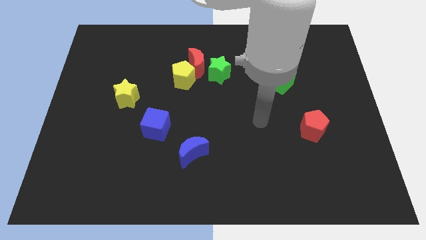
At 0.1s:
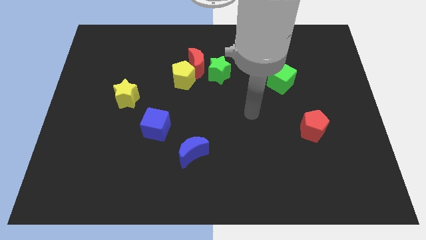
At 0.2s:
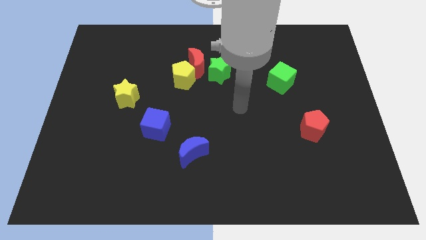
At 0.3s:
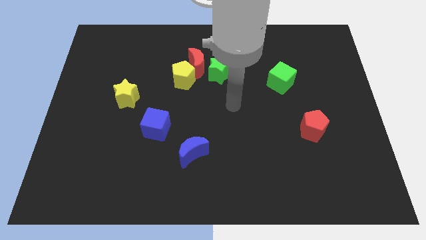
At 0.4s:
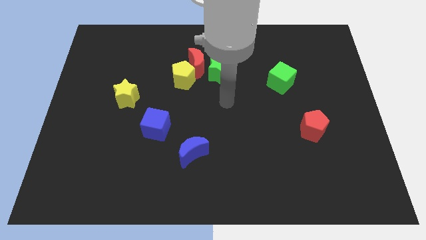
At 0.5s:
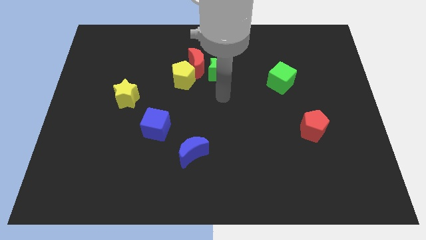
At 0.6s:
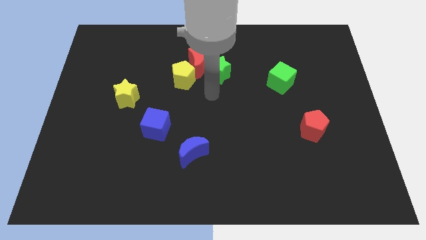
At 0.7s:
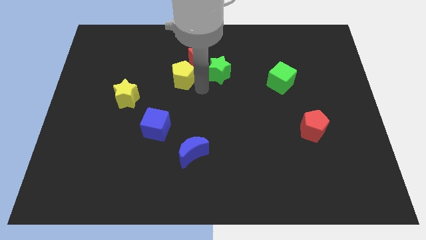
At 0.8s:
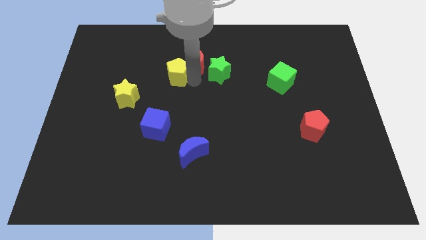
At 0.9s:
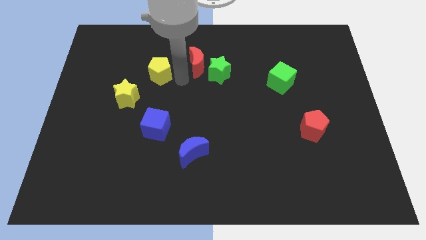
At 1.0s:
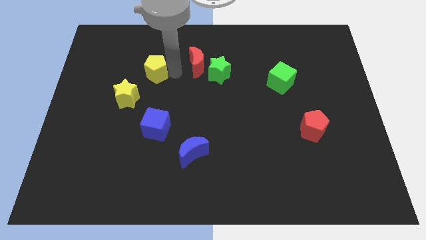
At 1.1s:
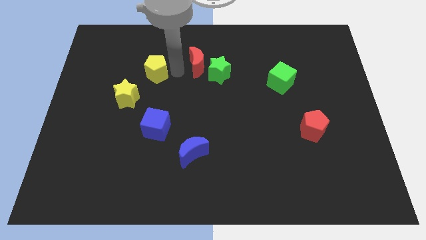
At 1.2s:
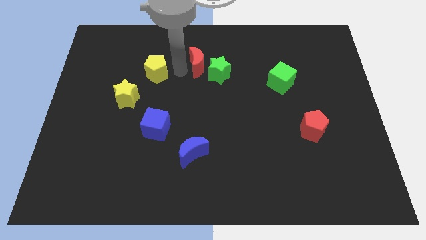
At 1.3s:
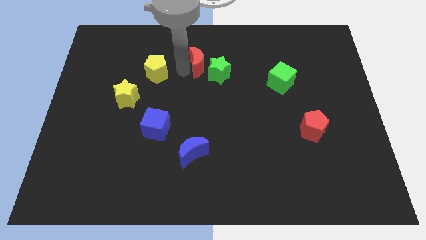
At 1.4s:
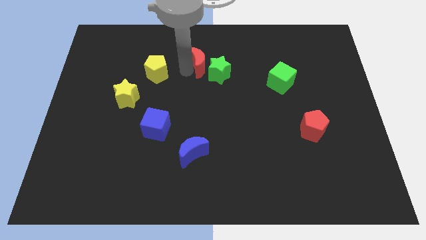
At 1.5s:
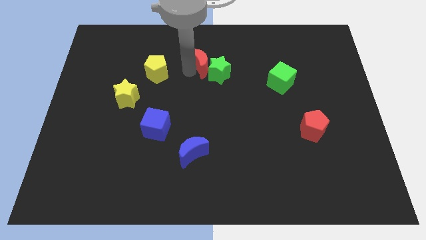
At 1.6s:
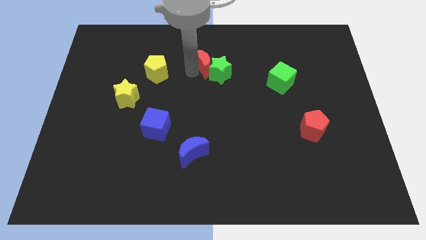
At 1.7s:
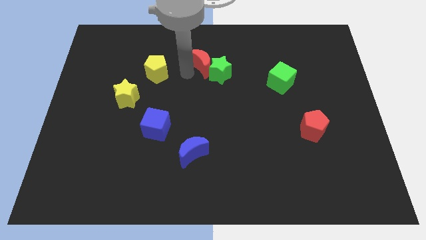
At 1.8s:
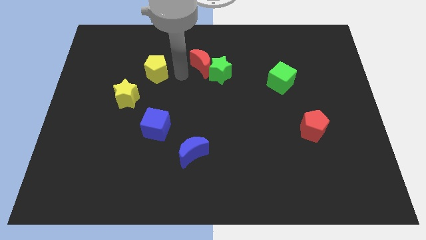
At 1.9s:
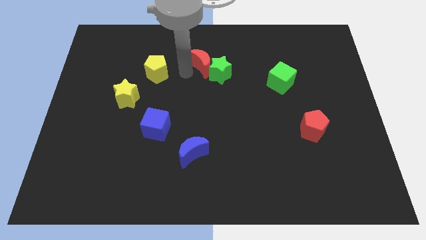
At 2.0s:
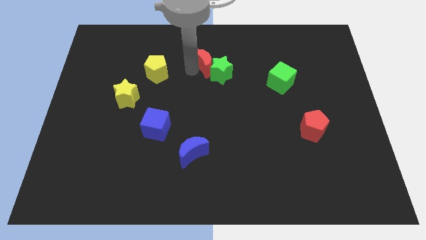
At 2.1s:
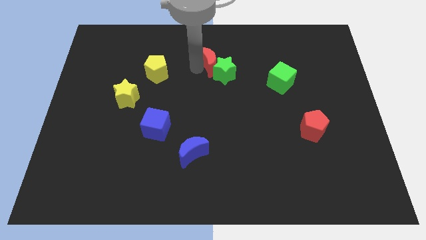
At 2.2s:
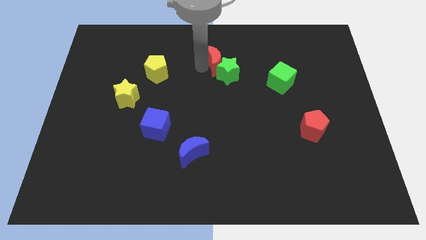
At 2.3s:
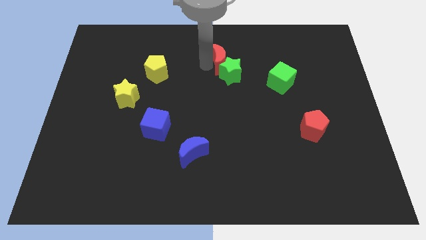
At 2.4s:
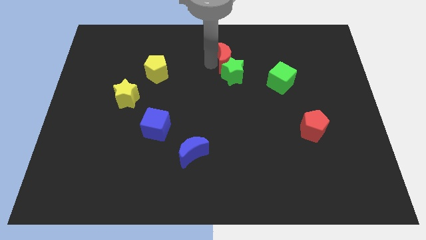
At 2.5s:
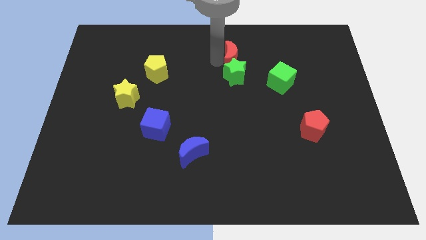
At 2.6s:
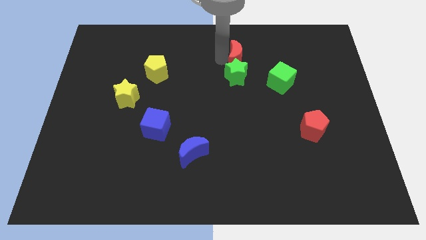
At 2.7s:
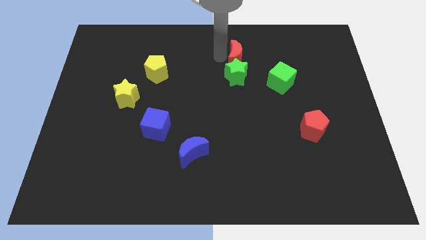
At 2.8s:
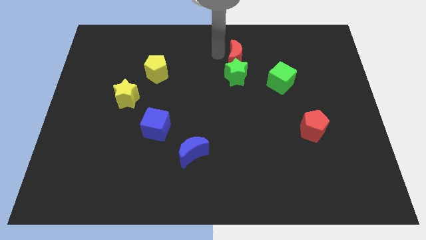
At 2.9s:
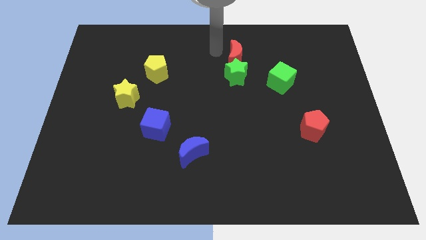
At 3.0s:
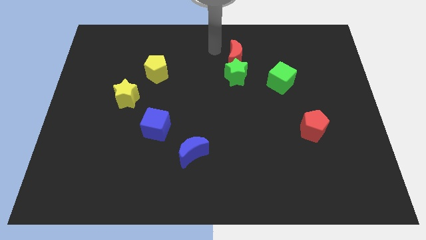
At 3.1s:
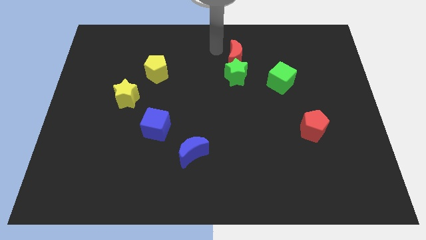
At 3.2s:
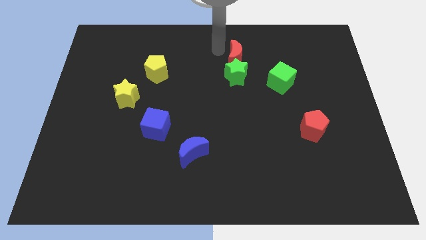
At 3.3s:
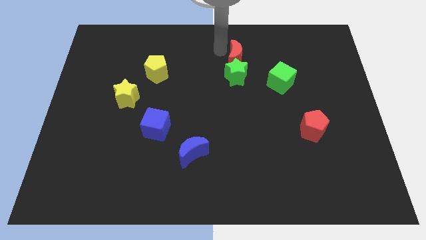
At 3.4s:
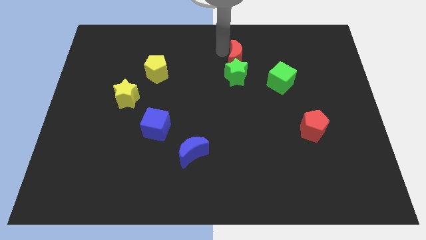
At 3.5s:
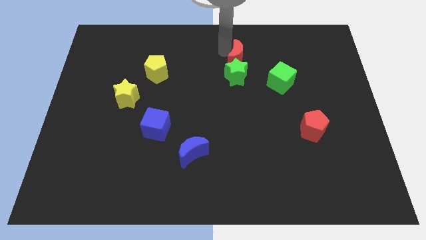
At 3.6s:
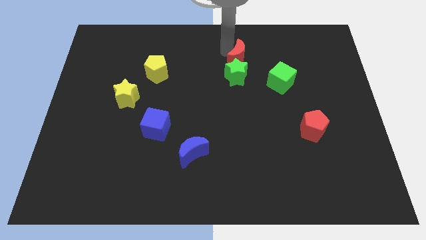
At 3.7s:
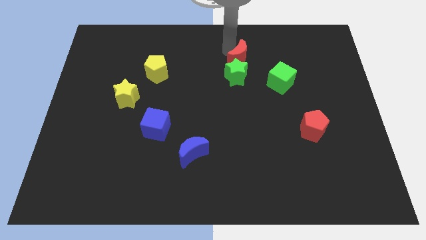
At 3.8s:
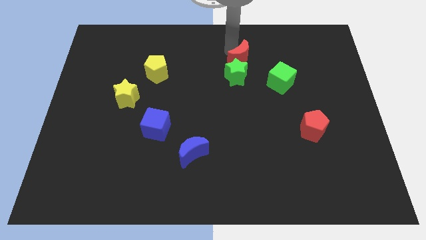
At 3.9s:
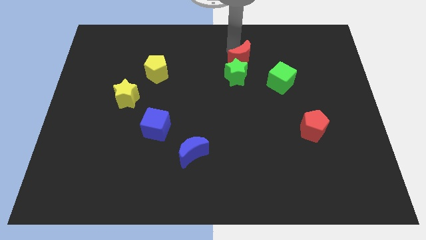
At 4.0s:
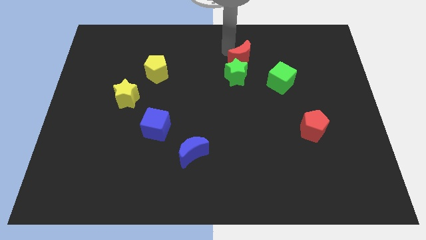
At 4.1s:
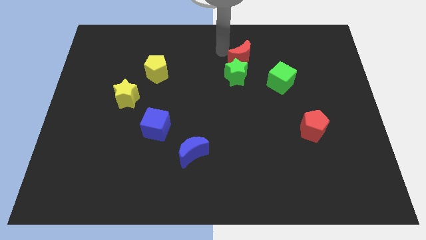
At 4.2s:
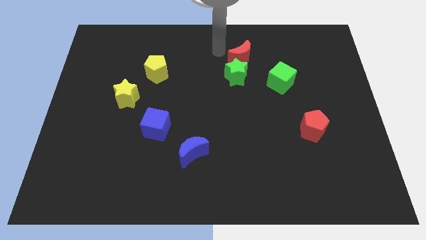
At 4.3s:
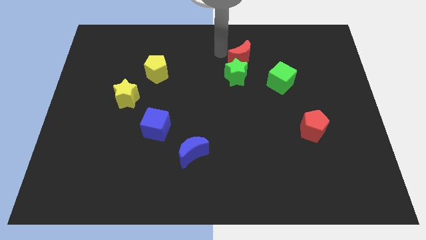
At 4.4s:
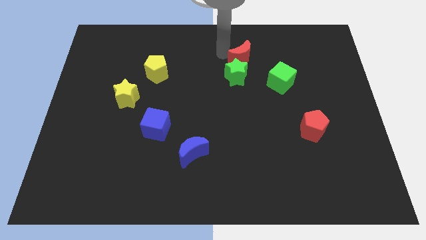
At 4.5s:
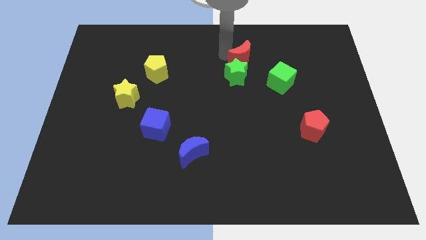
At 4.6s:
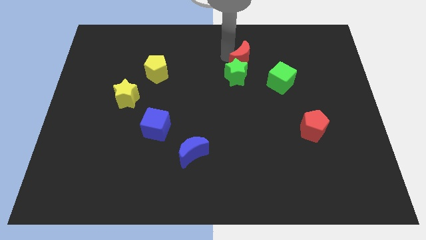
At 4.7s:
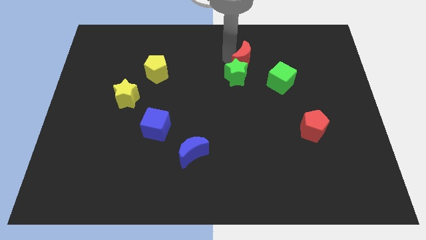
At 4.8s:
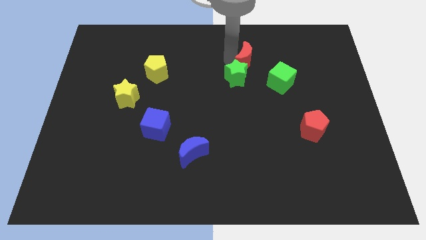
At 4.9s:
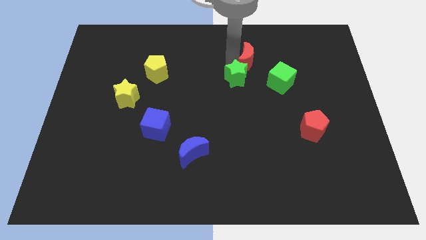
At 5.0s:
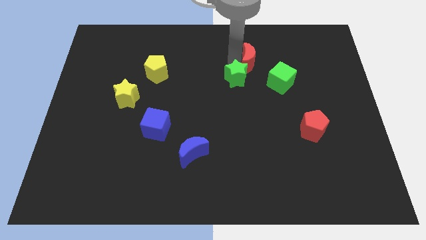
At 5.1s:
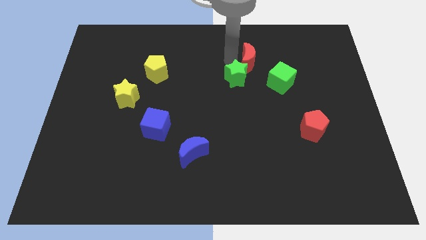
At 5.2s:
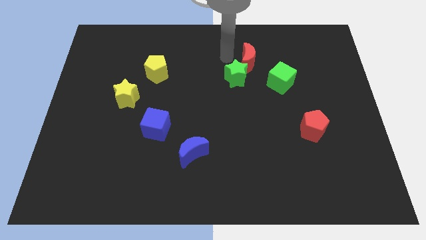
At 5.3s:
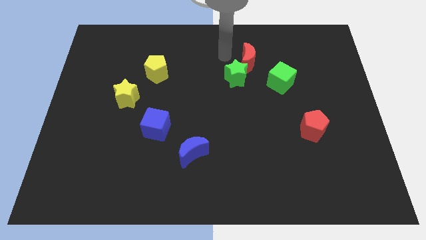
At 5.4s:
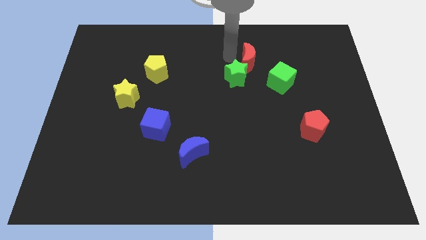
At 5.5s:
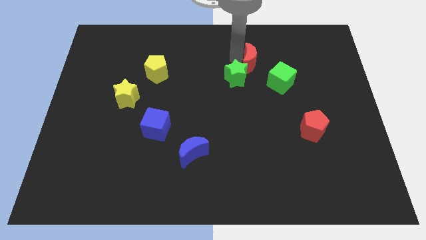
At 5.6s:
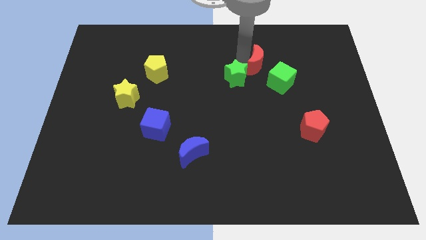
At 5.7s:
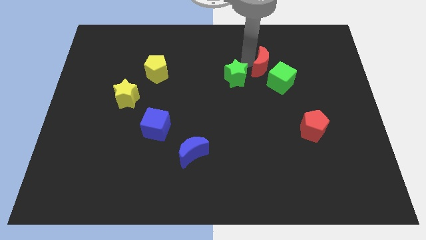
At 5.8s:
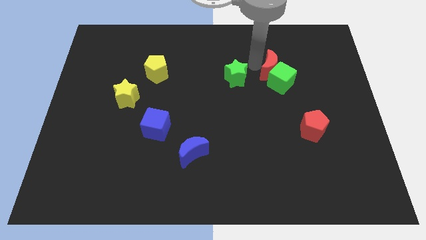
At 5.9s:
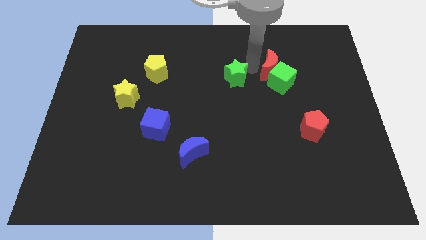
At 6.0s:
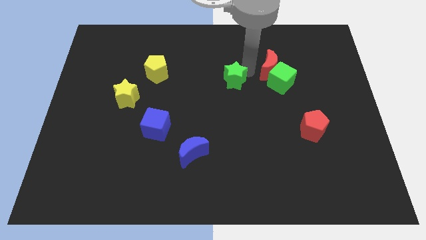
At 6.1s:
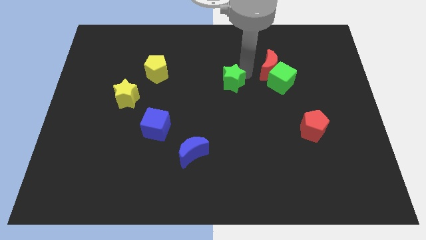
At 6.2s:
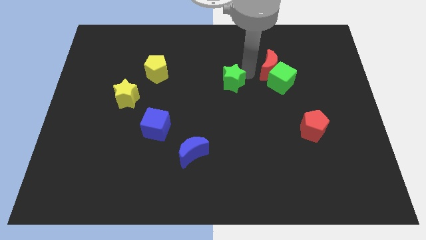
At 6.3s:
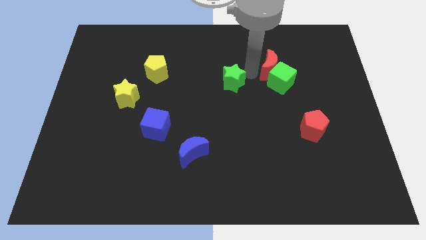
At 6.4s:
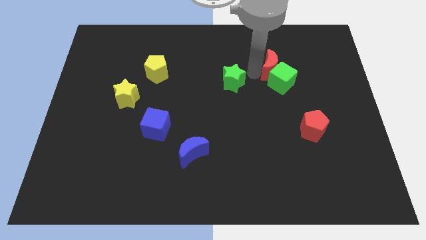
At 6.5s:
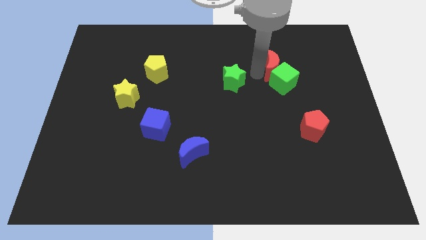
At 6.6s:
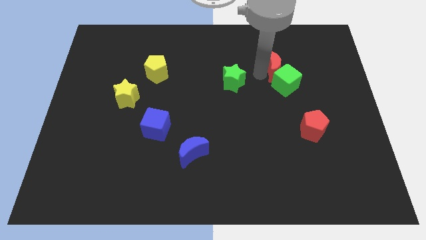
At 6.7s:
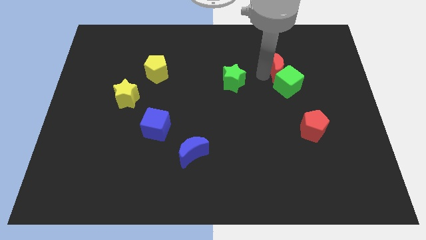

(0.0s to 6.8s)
move the red moon right

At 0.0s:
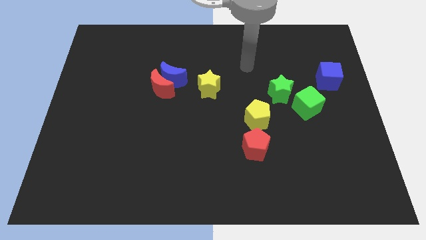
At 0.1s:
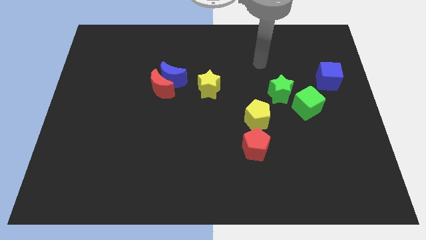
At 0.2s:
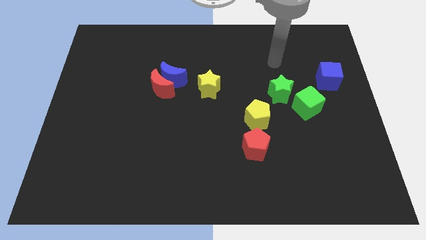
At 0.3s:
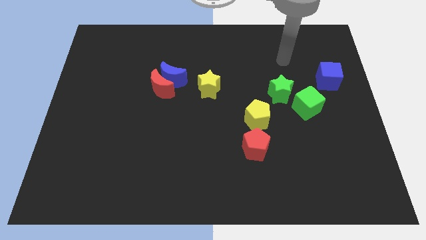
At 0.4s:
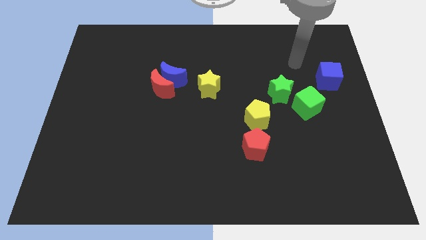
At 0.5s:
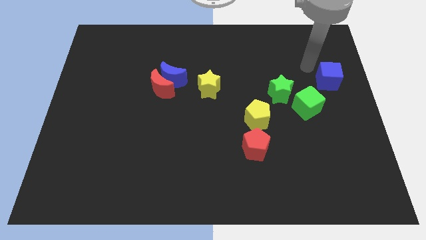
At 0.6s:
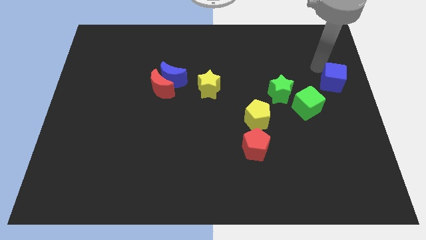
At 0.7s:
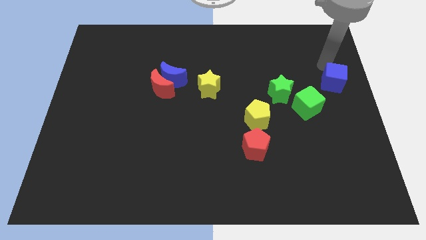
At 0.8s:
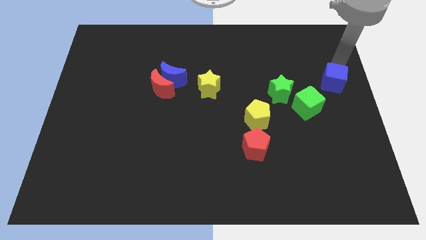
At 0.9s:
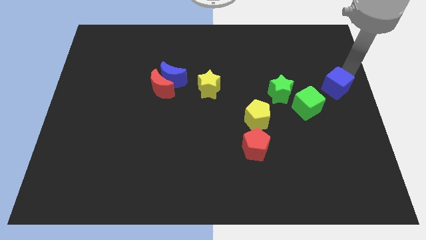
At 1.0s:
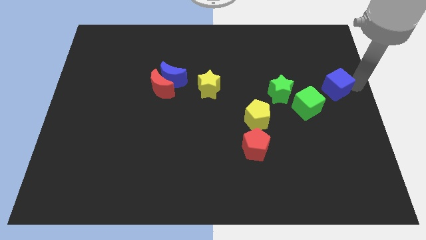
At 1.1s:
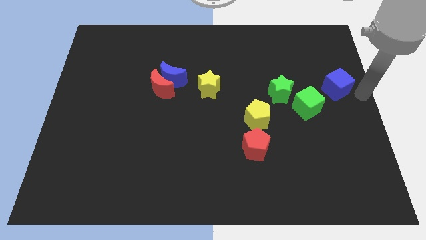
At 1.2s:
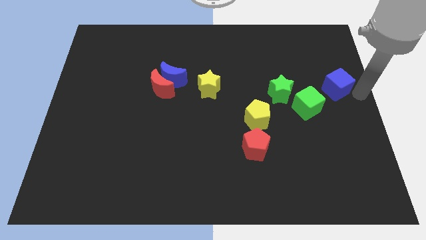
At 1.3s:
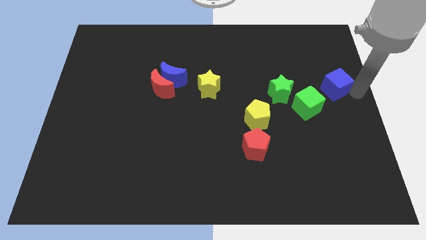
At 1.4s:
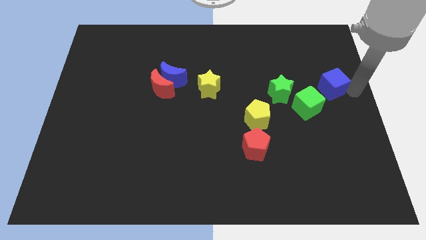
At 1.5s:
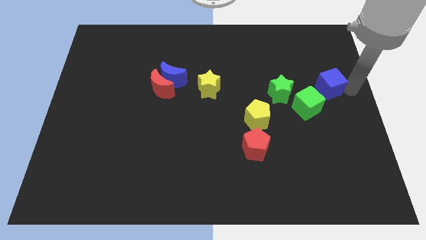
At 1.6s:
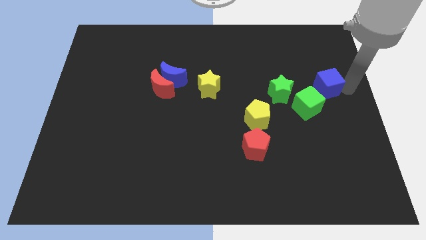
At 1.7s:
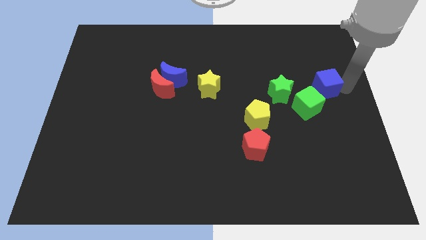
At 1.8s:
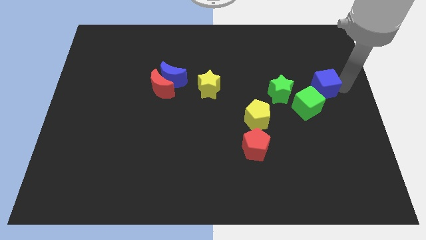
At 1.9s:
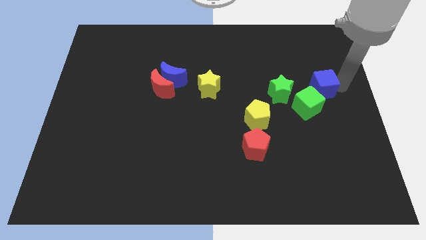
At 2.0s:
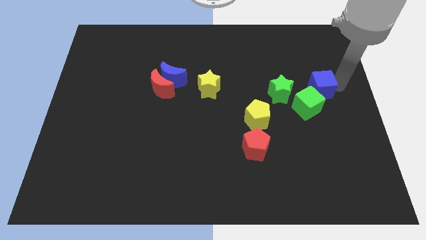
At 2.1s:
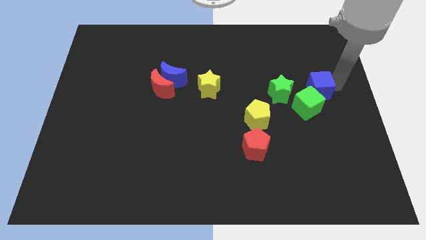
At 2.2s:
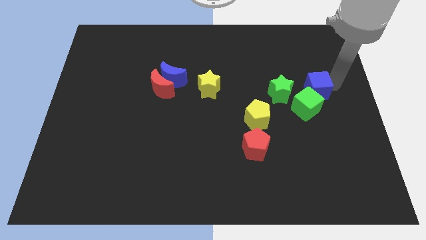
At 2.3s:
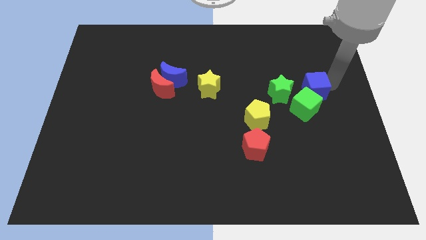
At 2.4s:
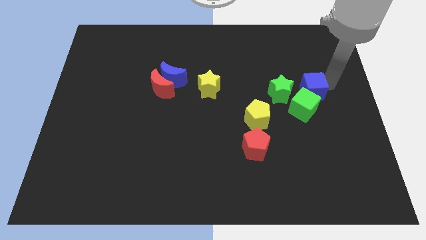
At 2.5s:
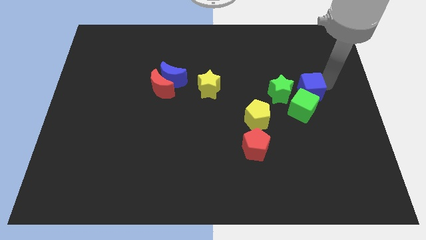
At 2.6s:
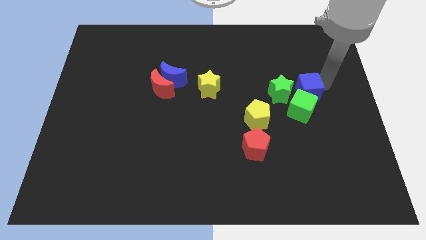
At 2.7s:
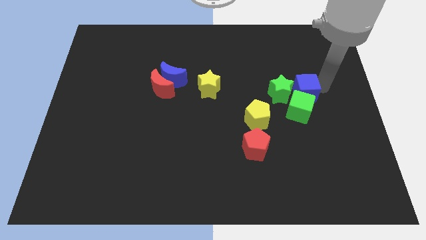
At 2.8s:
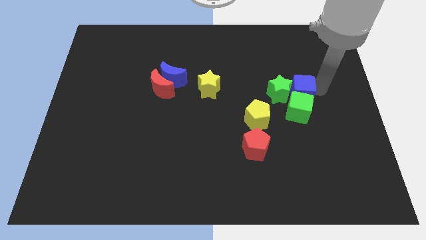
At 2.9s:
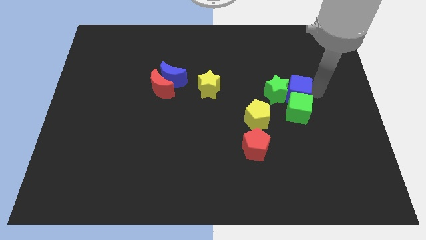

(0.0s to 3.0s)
move the blue cube left slightly
